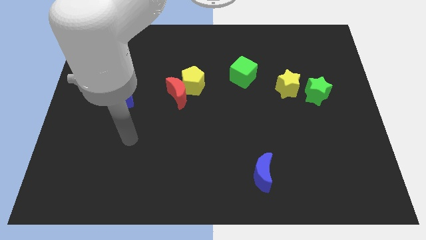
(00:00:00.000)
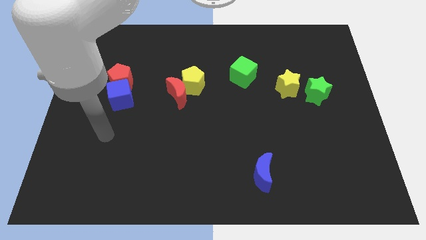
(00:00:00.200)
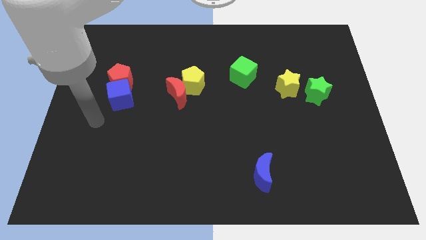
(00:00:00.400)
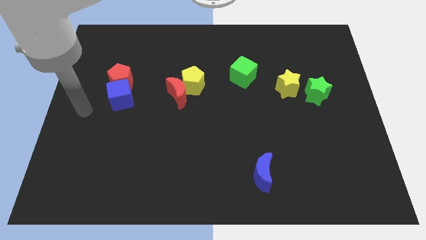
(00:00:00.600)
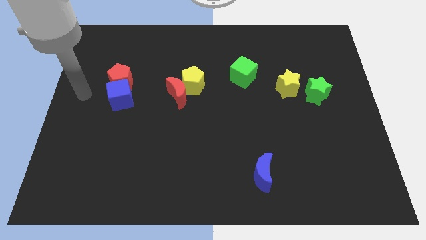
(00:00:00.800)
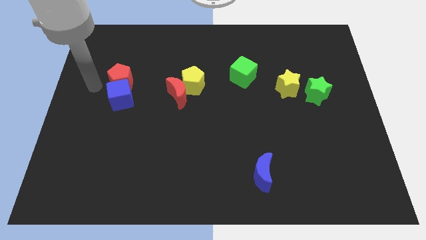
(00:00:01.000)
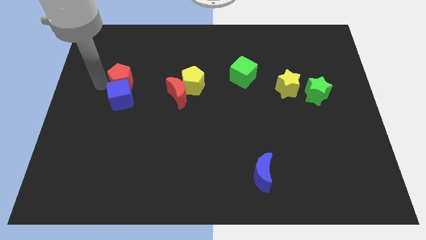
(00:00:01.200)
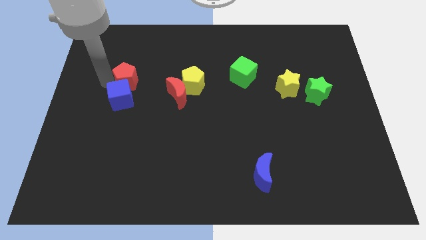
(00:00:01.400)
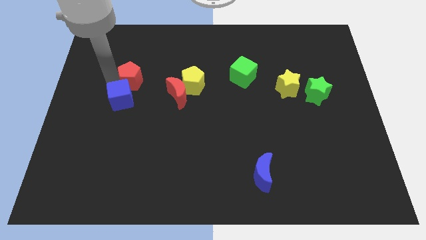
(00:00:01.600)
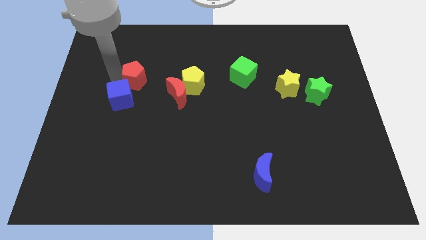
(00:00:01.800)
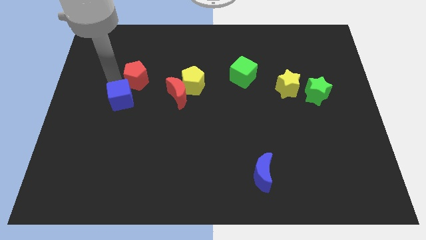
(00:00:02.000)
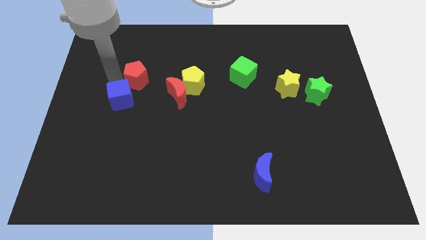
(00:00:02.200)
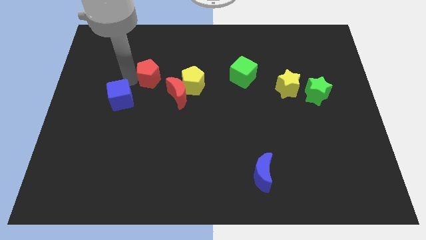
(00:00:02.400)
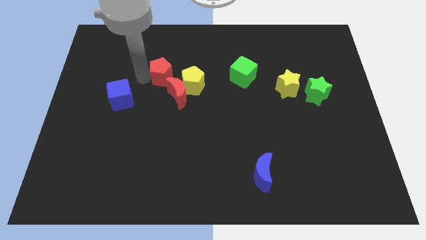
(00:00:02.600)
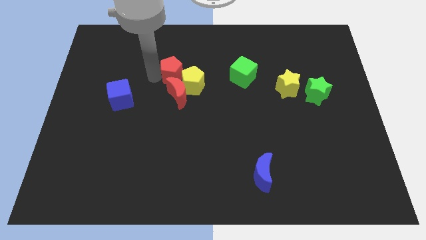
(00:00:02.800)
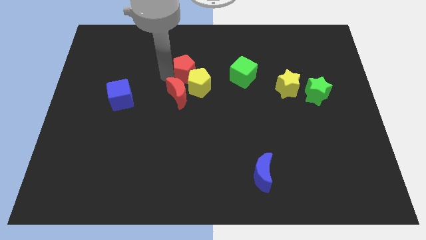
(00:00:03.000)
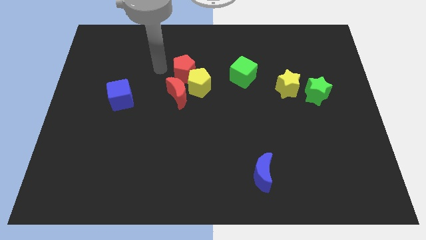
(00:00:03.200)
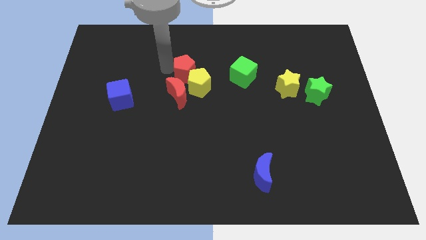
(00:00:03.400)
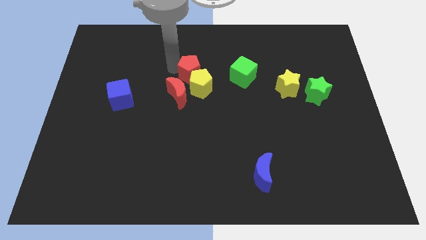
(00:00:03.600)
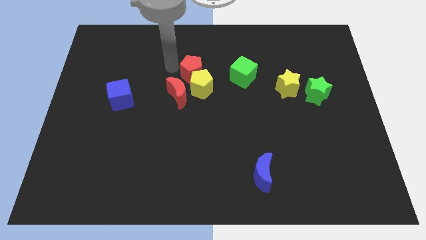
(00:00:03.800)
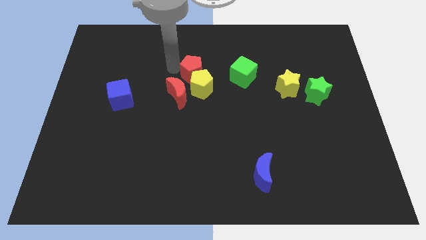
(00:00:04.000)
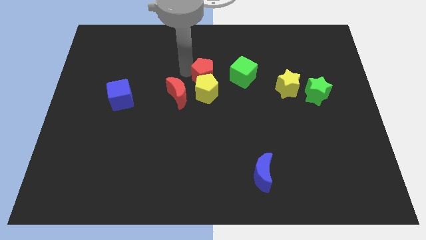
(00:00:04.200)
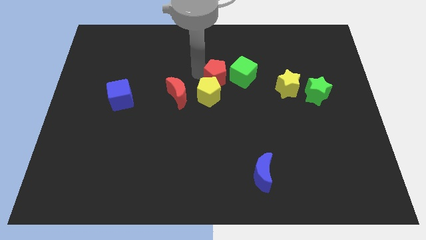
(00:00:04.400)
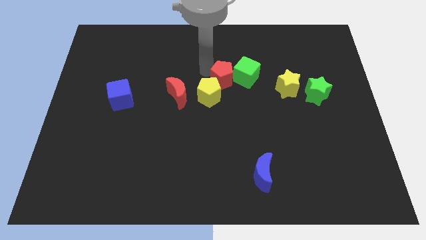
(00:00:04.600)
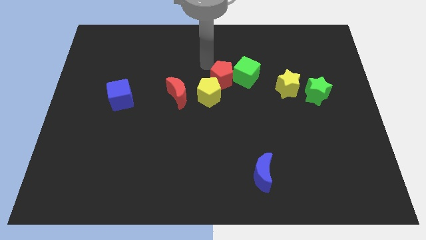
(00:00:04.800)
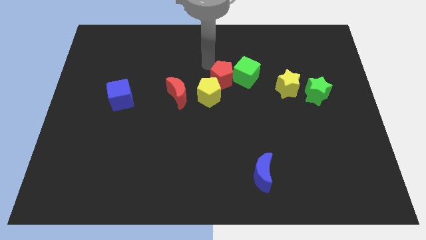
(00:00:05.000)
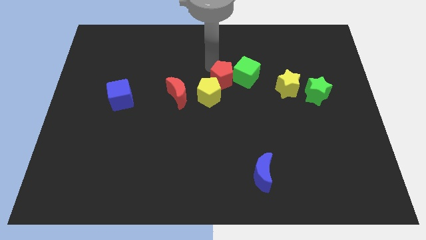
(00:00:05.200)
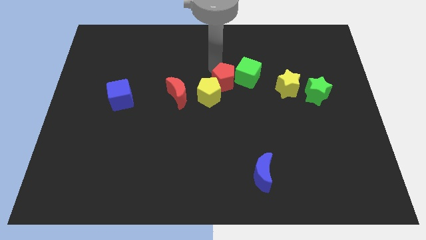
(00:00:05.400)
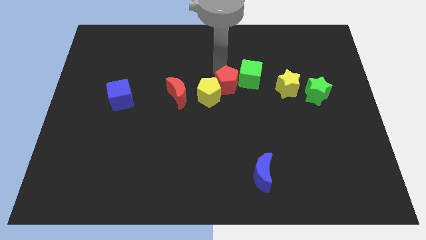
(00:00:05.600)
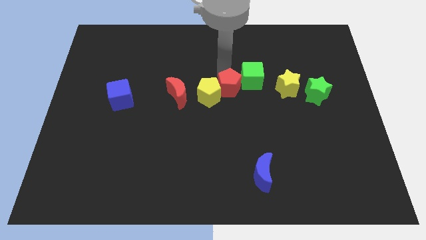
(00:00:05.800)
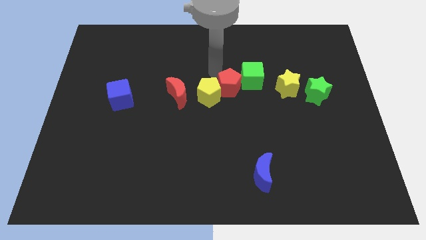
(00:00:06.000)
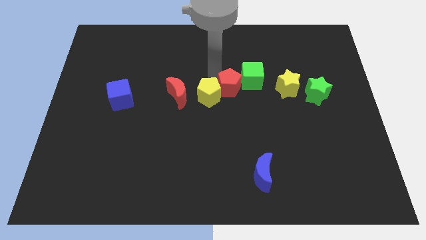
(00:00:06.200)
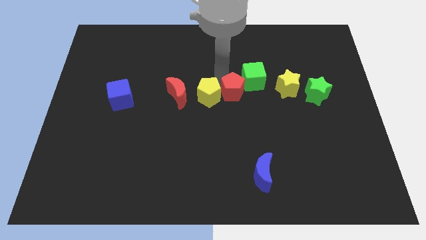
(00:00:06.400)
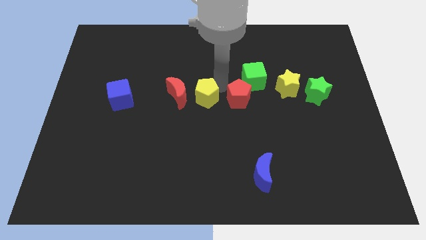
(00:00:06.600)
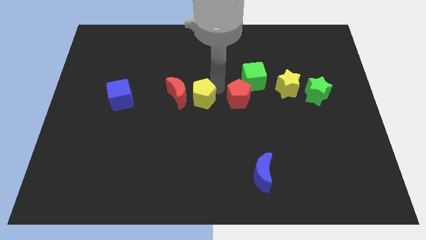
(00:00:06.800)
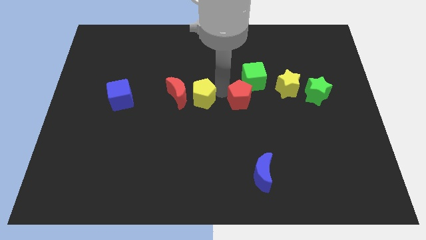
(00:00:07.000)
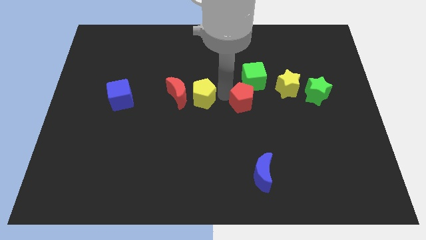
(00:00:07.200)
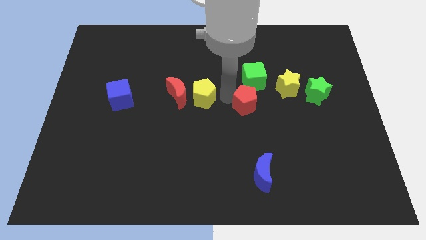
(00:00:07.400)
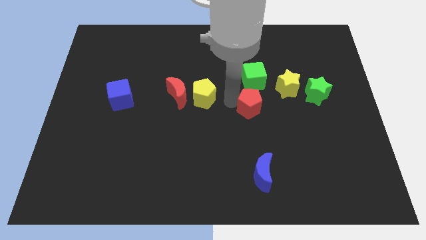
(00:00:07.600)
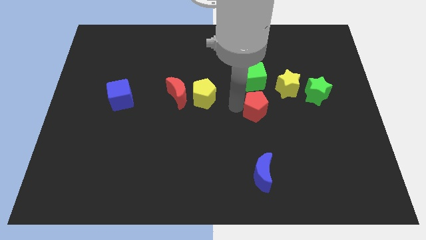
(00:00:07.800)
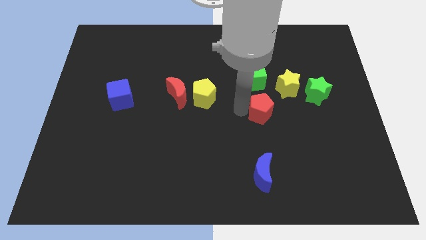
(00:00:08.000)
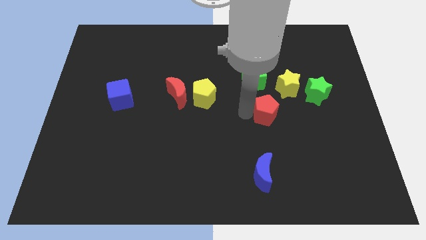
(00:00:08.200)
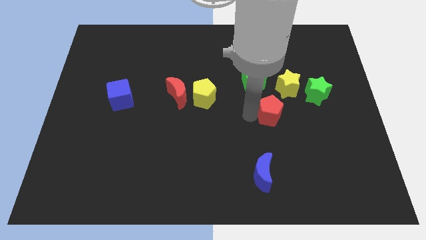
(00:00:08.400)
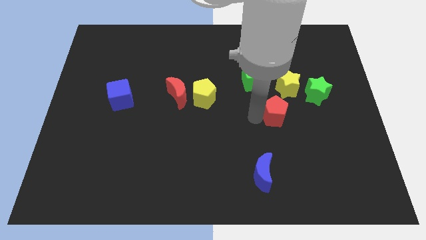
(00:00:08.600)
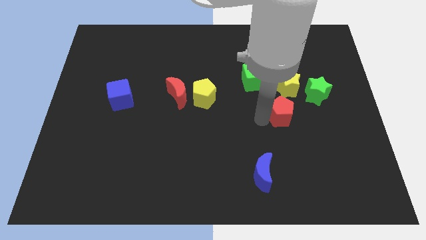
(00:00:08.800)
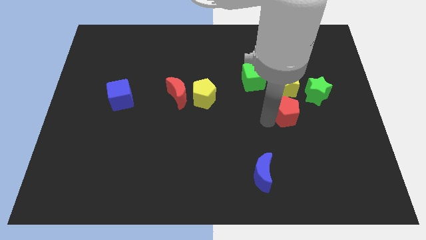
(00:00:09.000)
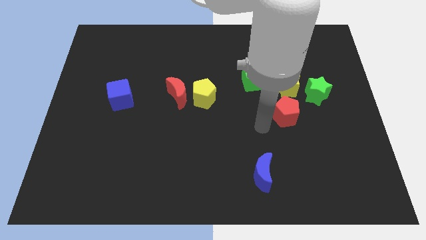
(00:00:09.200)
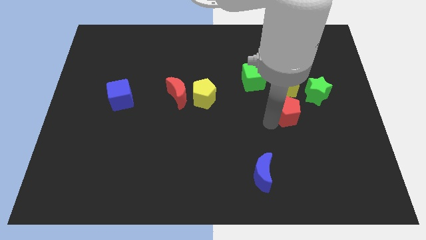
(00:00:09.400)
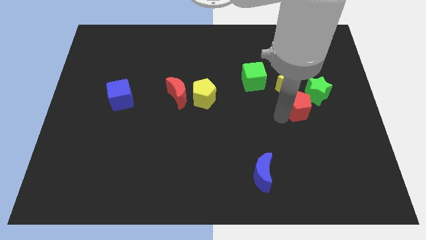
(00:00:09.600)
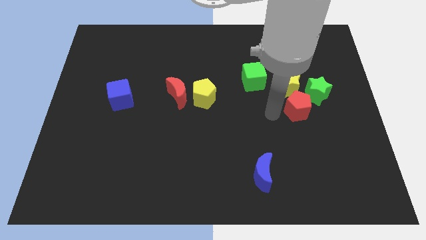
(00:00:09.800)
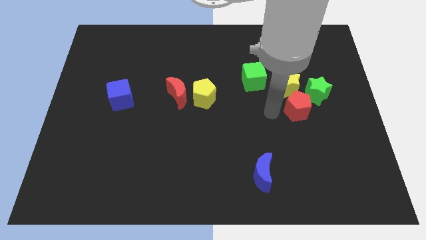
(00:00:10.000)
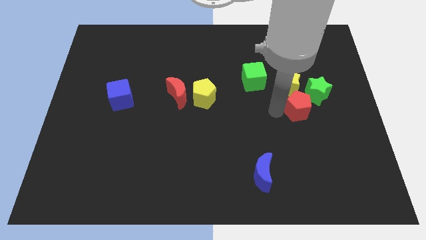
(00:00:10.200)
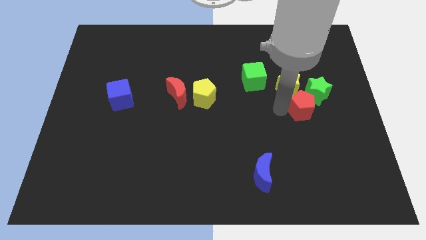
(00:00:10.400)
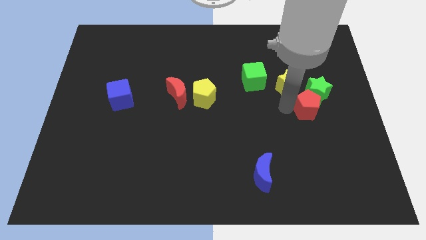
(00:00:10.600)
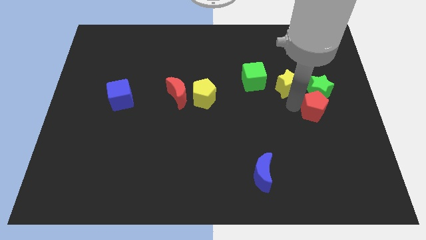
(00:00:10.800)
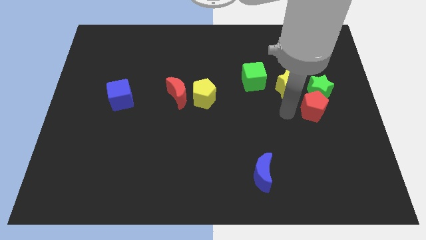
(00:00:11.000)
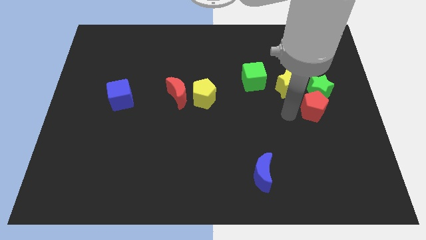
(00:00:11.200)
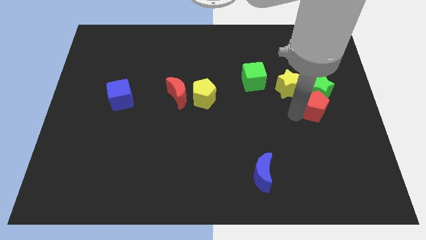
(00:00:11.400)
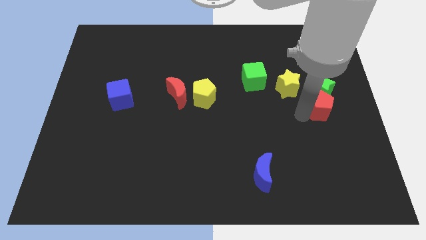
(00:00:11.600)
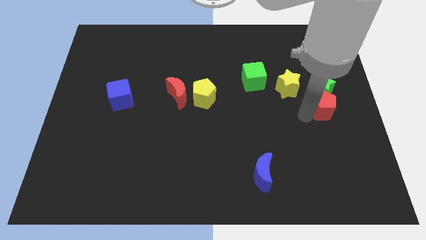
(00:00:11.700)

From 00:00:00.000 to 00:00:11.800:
slide the red pentagon to the center right

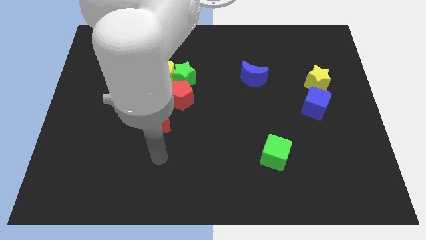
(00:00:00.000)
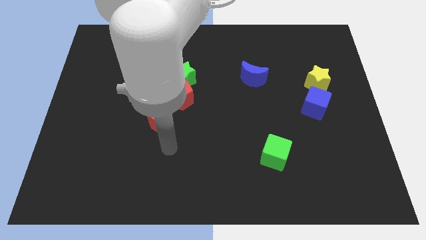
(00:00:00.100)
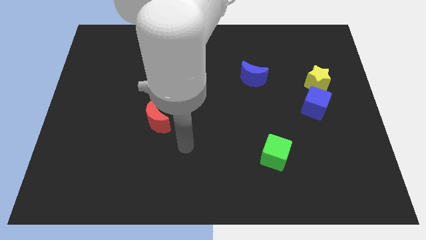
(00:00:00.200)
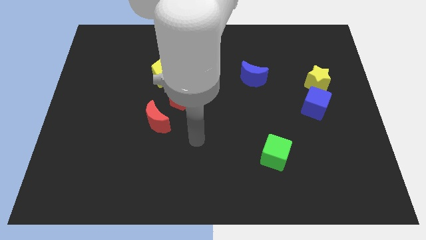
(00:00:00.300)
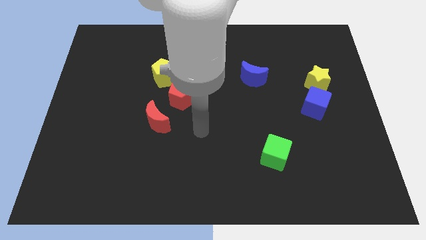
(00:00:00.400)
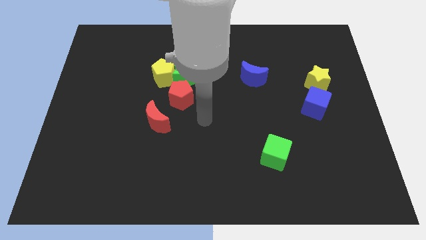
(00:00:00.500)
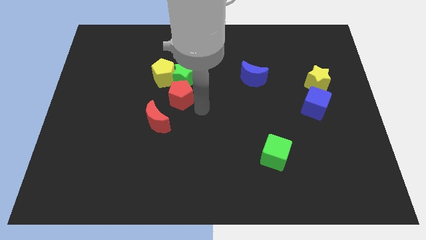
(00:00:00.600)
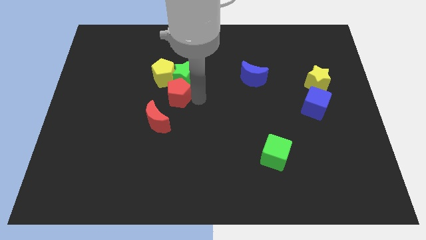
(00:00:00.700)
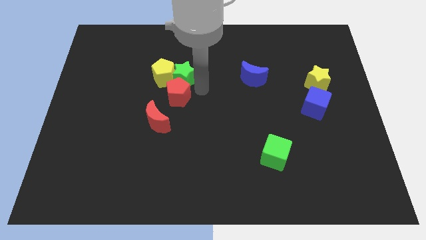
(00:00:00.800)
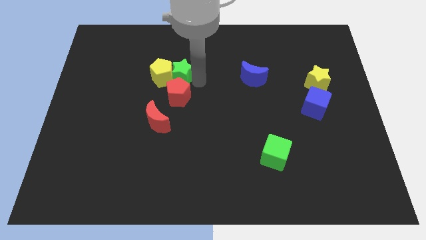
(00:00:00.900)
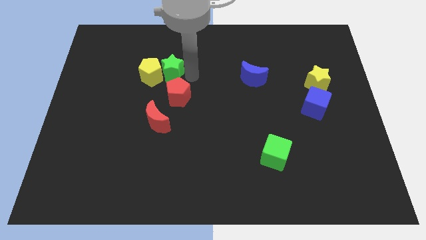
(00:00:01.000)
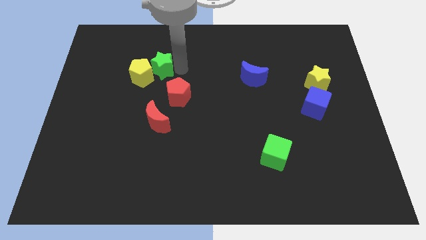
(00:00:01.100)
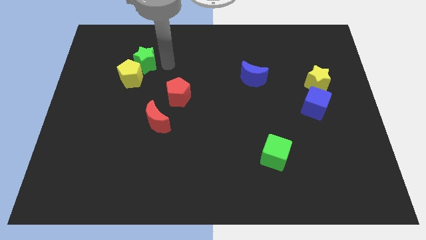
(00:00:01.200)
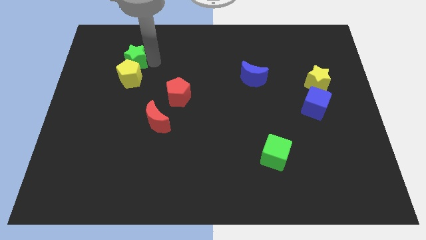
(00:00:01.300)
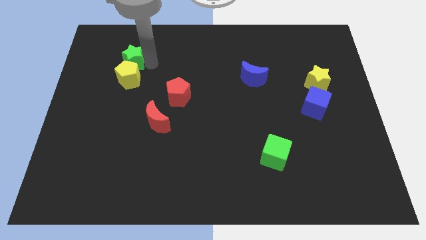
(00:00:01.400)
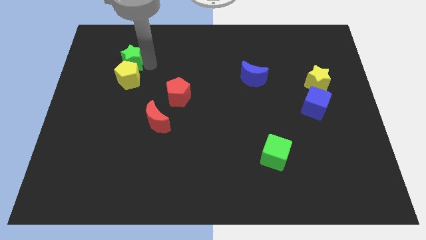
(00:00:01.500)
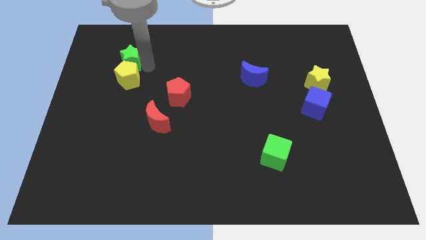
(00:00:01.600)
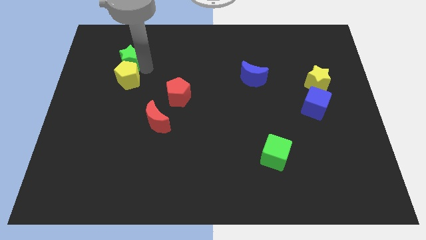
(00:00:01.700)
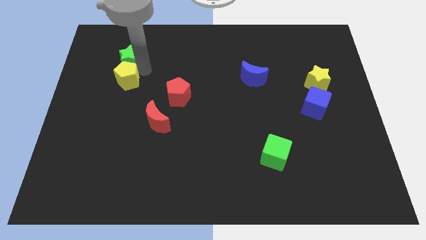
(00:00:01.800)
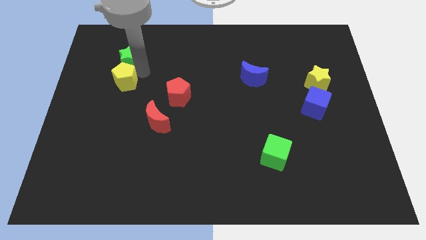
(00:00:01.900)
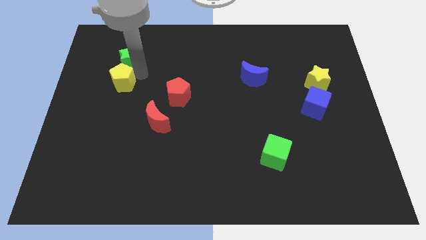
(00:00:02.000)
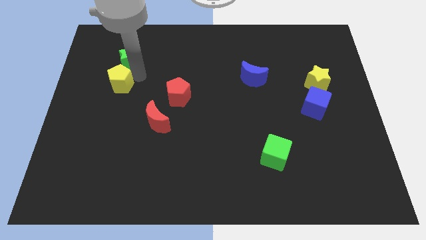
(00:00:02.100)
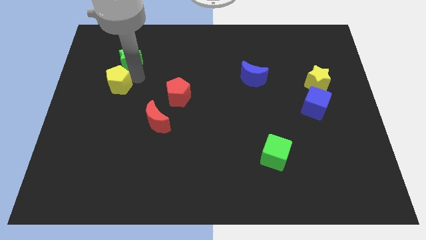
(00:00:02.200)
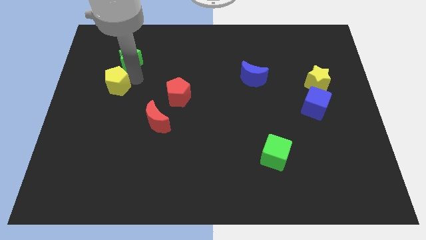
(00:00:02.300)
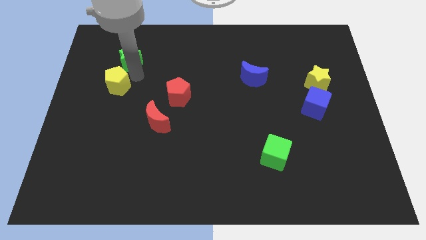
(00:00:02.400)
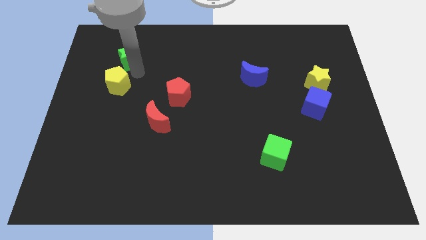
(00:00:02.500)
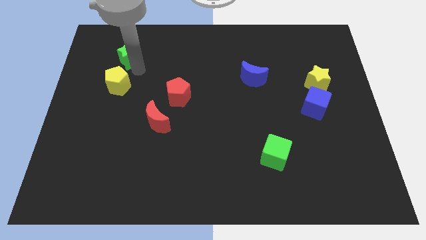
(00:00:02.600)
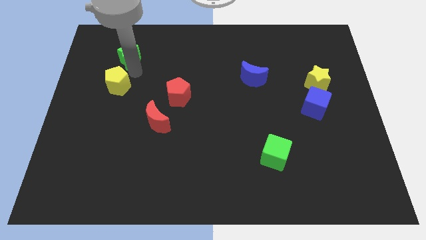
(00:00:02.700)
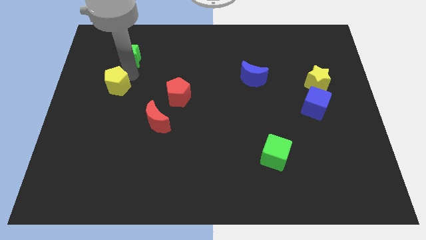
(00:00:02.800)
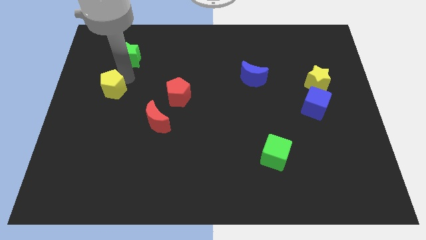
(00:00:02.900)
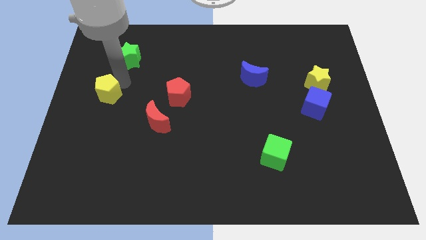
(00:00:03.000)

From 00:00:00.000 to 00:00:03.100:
push the yellow pentagon to the center left
